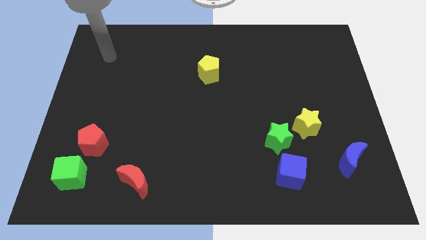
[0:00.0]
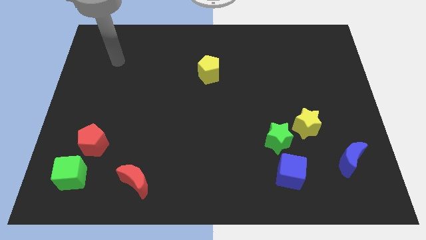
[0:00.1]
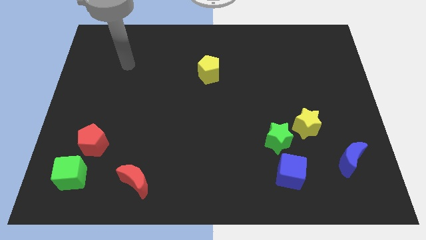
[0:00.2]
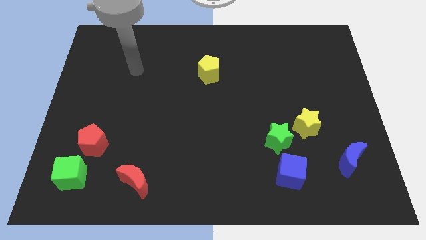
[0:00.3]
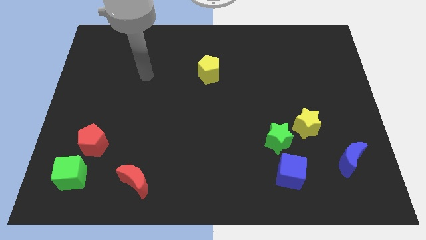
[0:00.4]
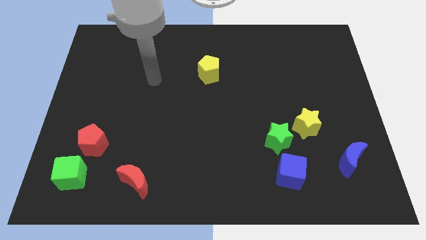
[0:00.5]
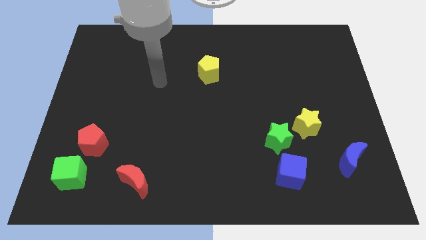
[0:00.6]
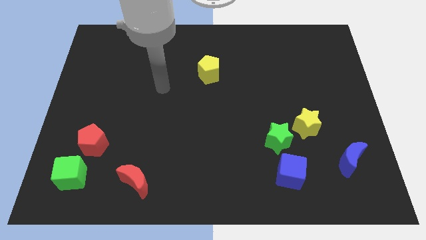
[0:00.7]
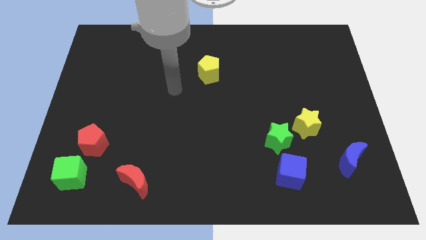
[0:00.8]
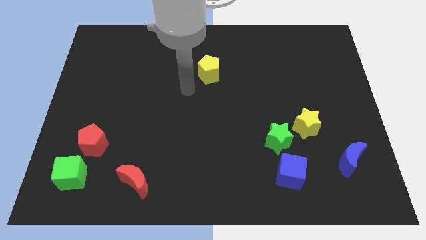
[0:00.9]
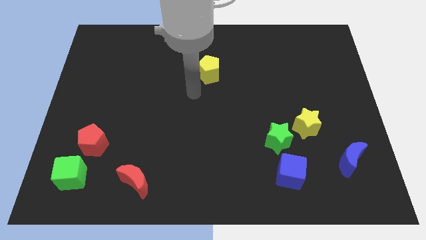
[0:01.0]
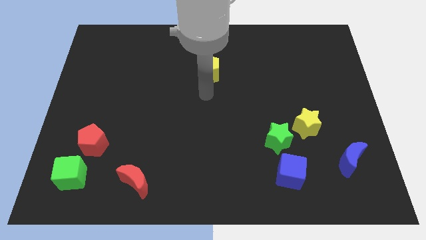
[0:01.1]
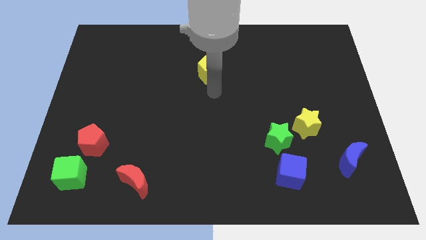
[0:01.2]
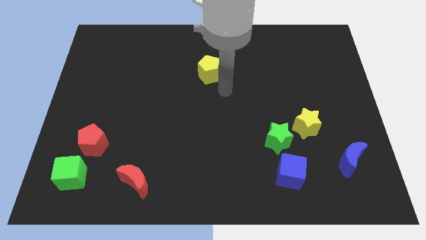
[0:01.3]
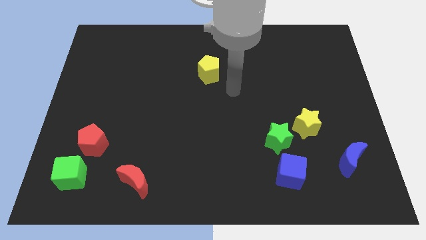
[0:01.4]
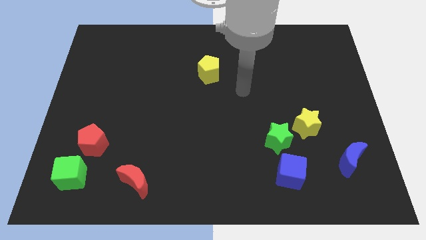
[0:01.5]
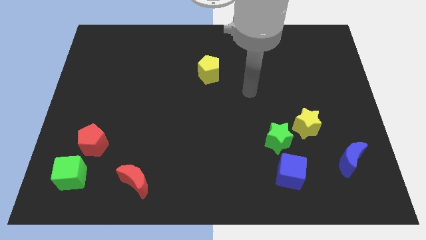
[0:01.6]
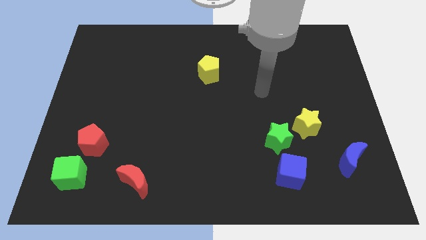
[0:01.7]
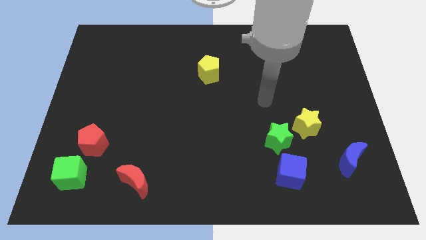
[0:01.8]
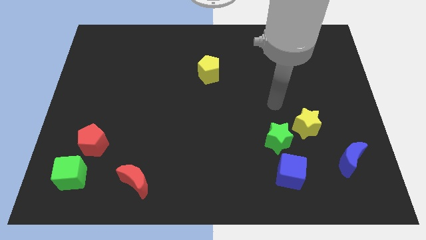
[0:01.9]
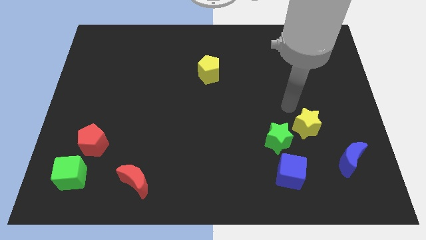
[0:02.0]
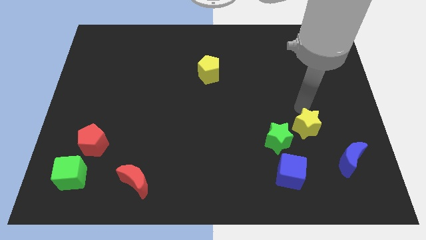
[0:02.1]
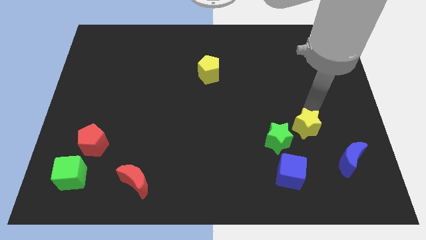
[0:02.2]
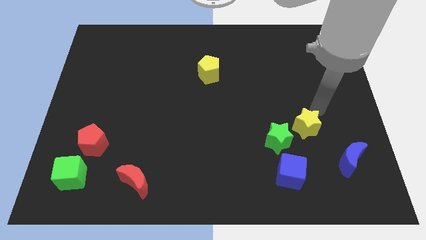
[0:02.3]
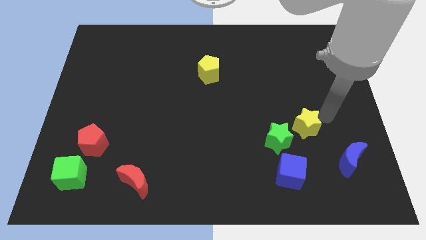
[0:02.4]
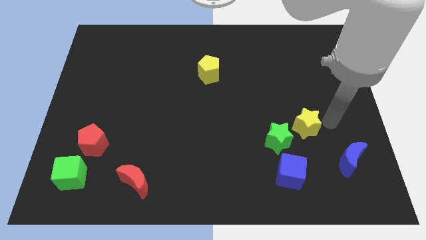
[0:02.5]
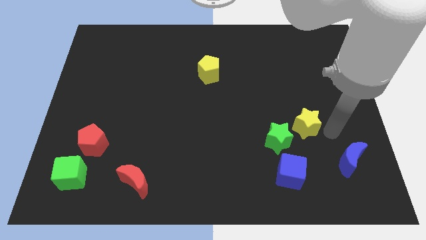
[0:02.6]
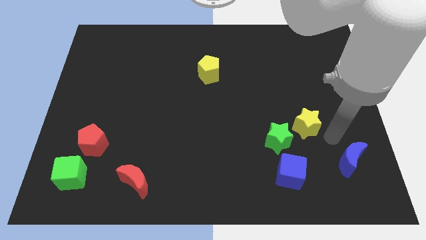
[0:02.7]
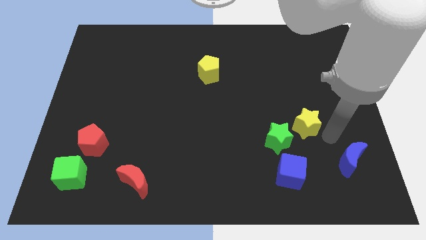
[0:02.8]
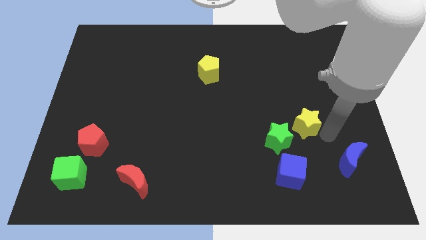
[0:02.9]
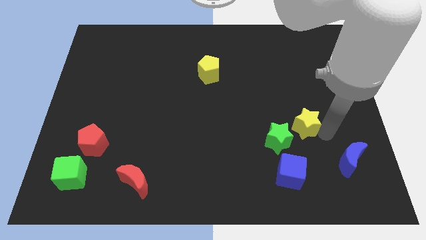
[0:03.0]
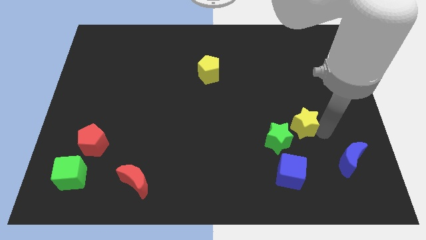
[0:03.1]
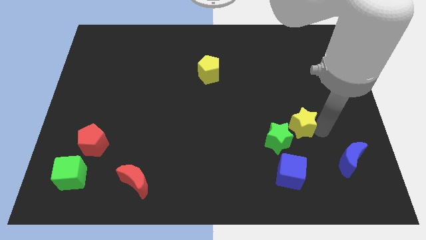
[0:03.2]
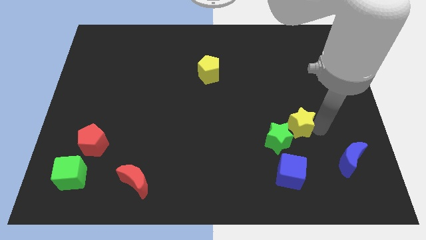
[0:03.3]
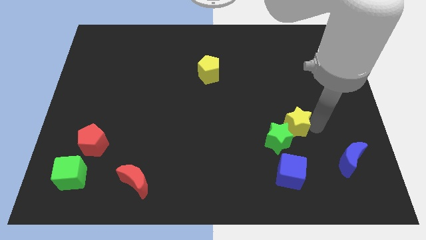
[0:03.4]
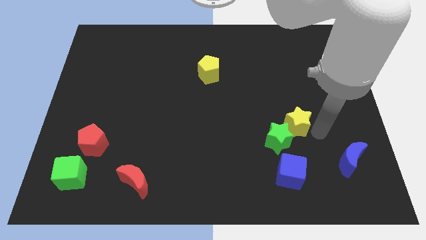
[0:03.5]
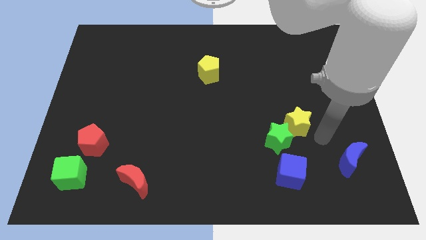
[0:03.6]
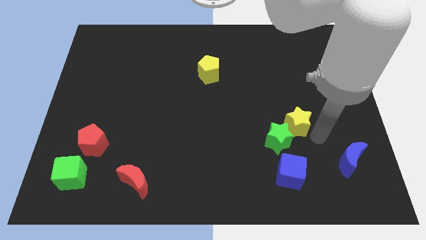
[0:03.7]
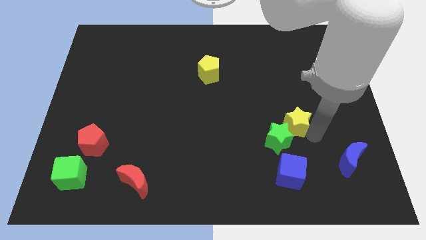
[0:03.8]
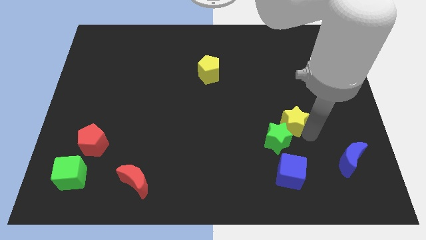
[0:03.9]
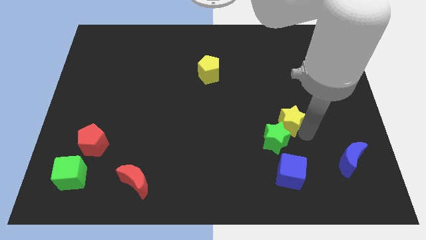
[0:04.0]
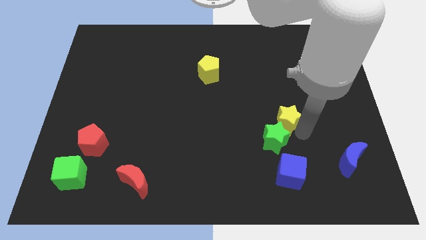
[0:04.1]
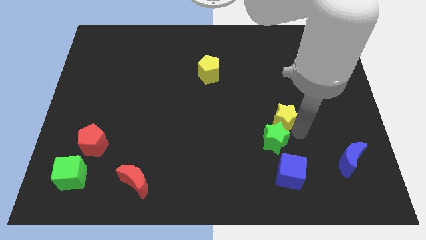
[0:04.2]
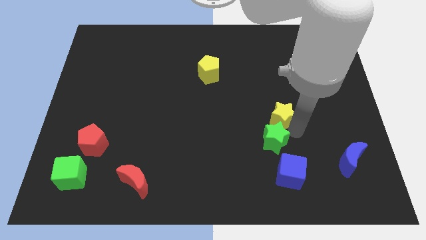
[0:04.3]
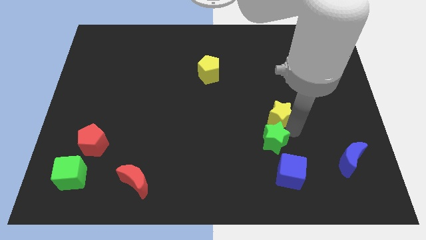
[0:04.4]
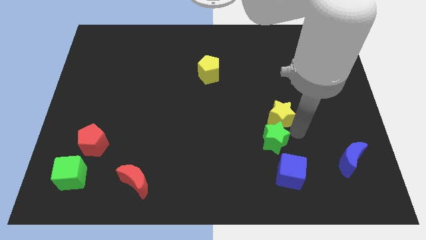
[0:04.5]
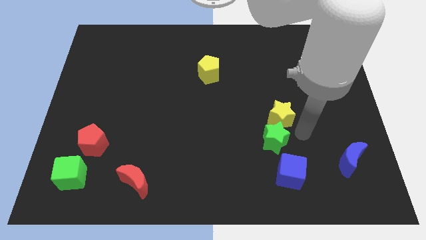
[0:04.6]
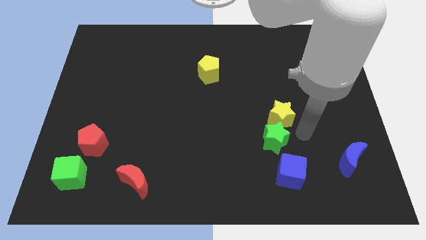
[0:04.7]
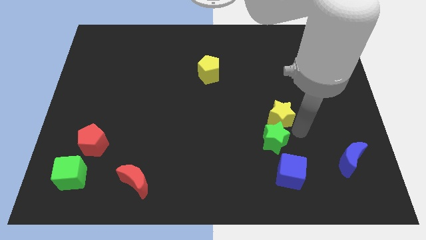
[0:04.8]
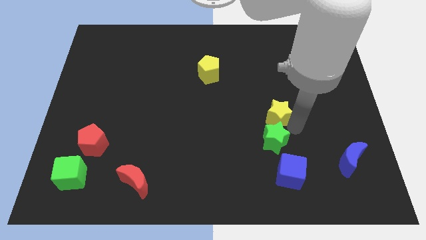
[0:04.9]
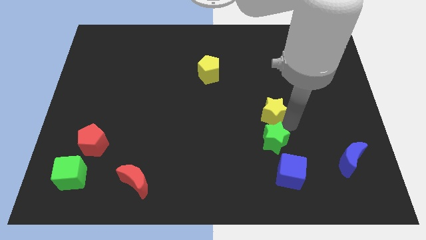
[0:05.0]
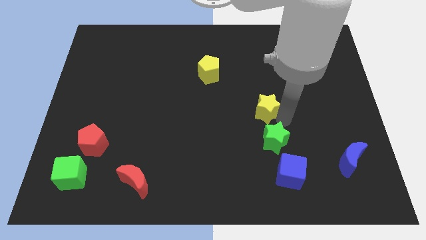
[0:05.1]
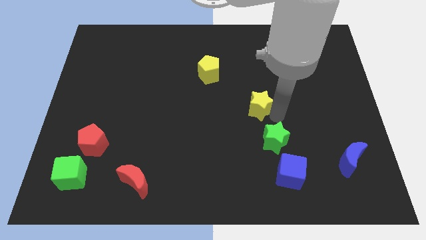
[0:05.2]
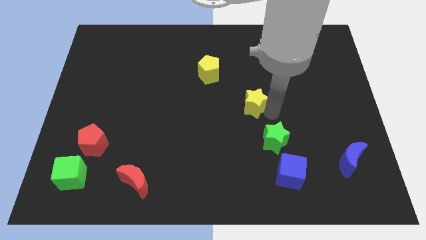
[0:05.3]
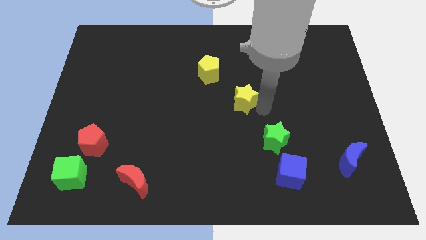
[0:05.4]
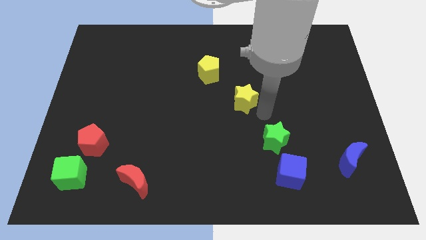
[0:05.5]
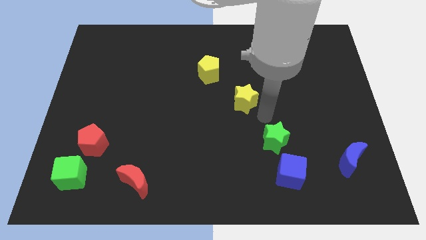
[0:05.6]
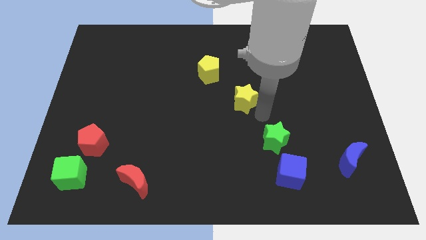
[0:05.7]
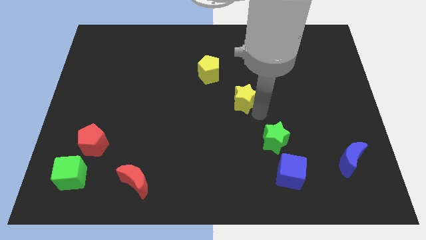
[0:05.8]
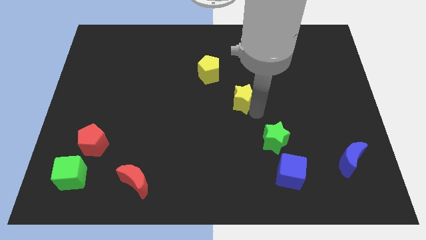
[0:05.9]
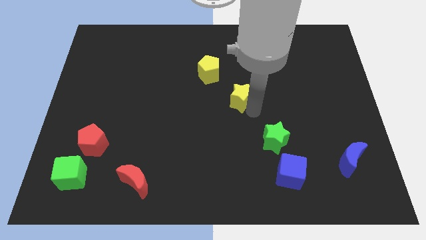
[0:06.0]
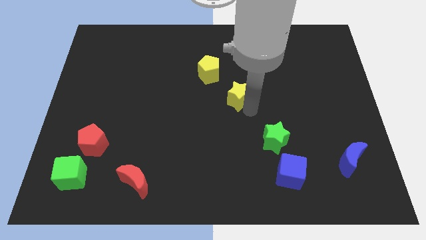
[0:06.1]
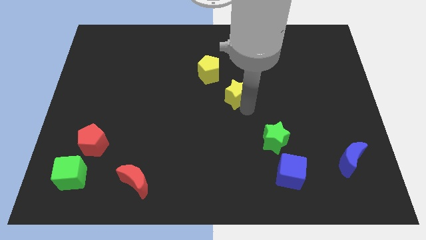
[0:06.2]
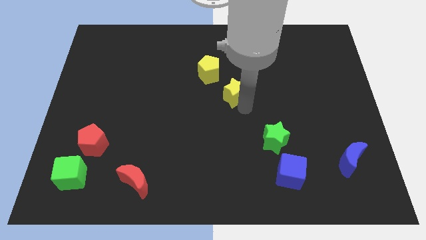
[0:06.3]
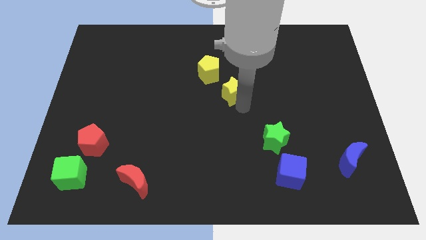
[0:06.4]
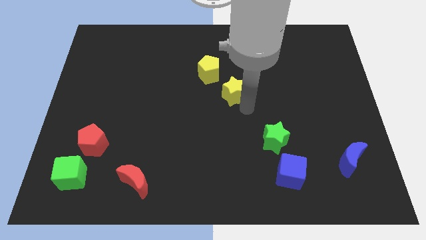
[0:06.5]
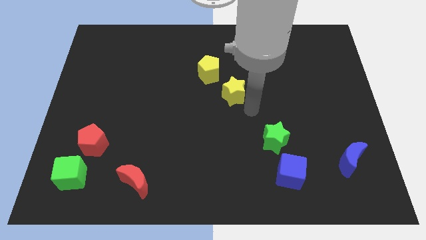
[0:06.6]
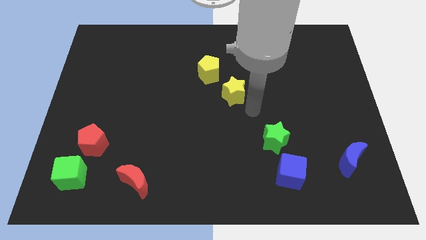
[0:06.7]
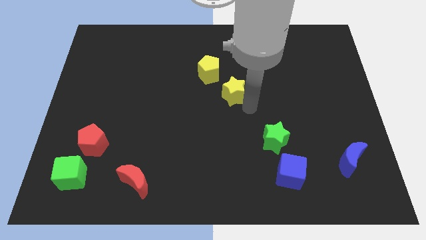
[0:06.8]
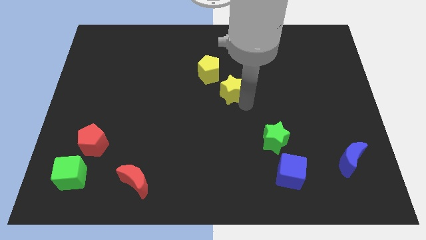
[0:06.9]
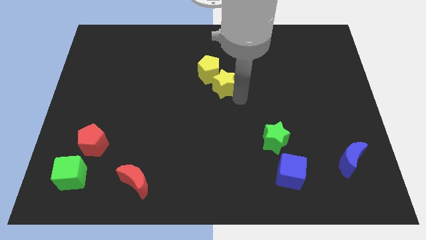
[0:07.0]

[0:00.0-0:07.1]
push the yellow star towards the yellow pentagon
